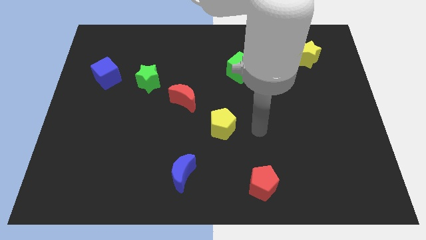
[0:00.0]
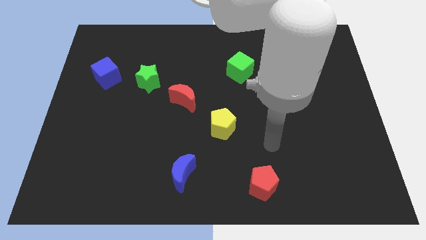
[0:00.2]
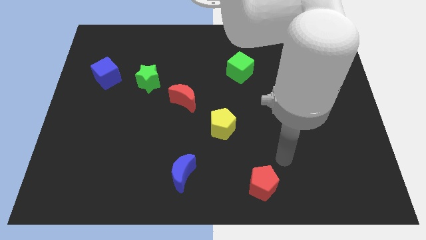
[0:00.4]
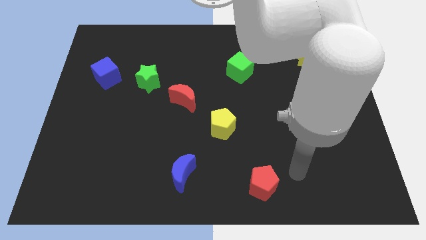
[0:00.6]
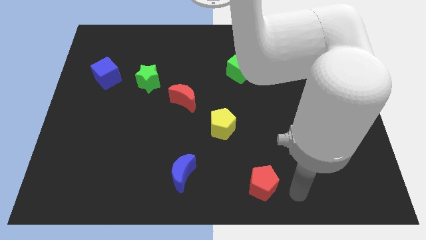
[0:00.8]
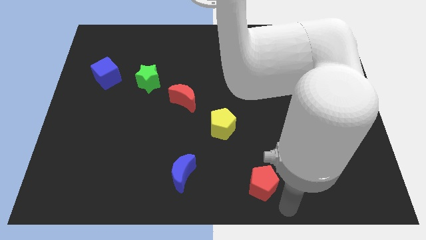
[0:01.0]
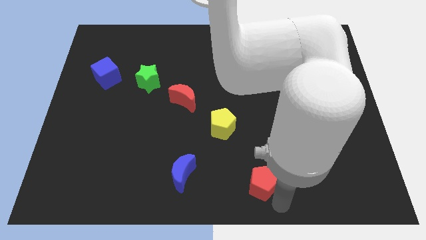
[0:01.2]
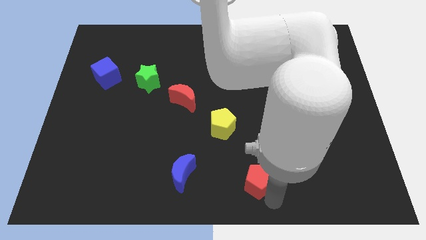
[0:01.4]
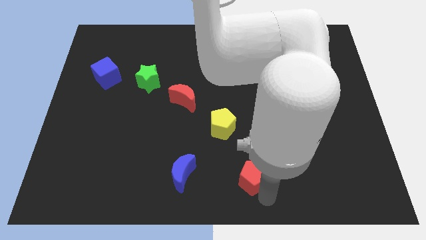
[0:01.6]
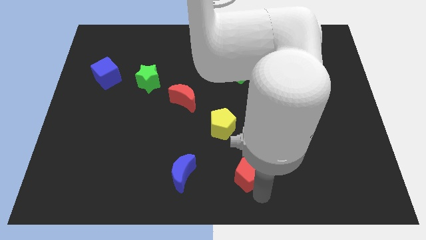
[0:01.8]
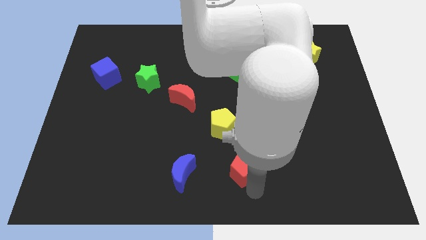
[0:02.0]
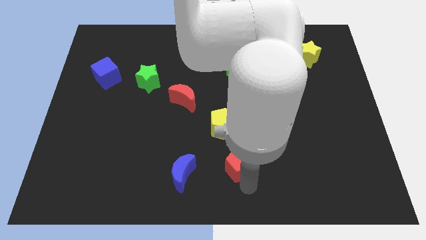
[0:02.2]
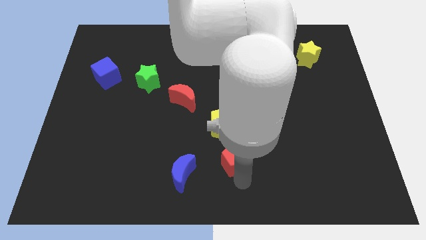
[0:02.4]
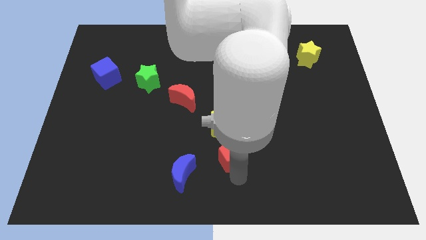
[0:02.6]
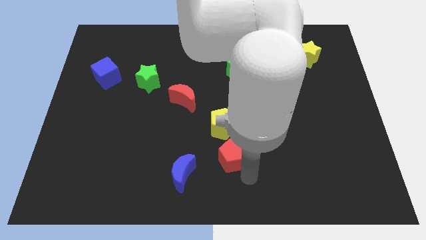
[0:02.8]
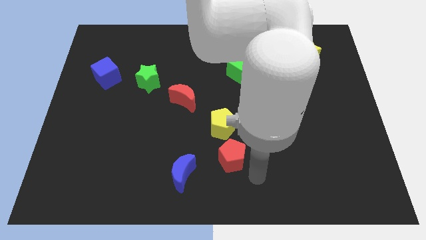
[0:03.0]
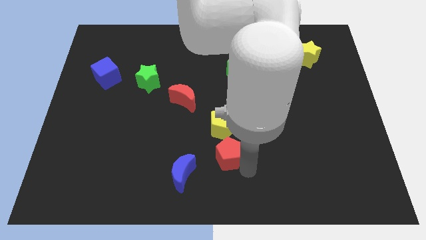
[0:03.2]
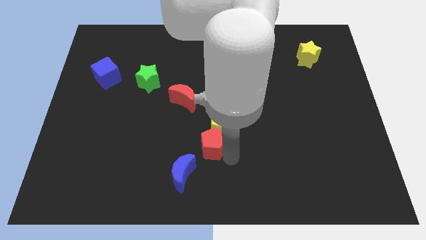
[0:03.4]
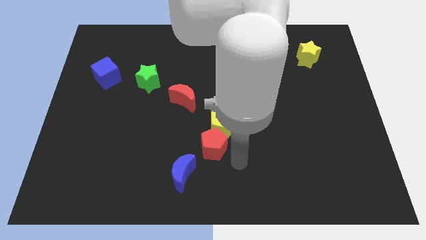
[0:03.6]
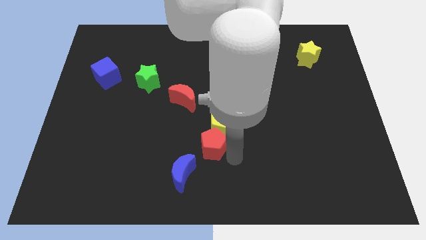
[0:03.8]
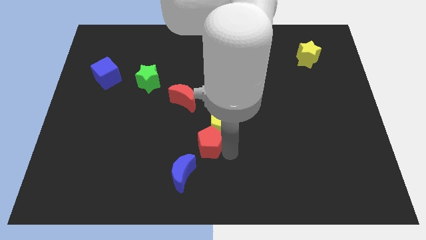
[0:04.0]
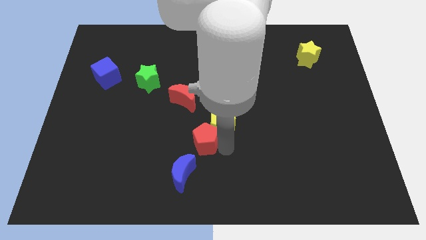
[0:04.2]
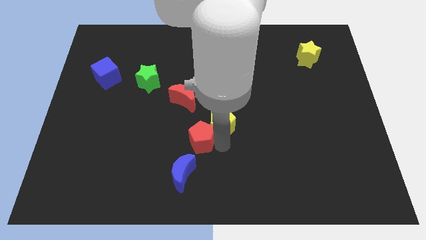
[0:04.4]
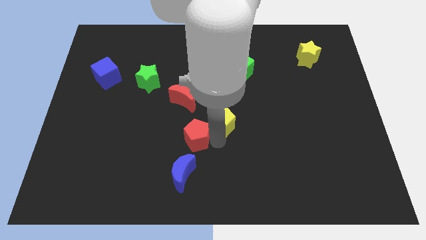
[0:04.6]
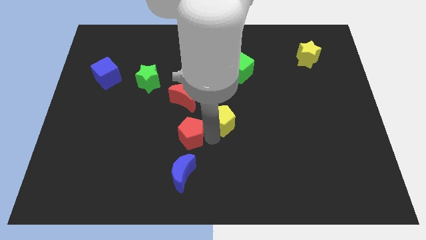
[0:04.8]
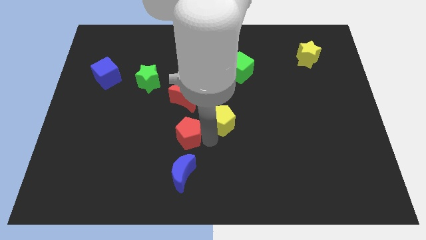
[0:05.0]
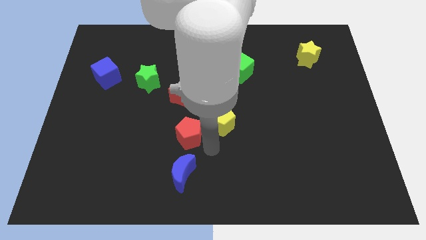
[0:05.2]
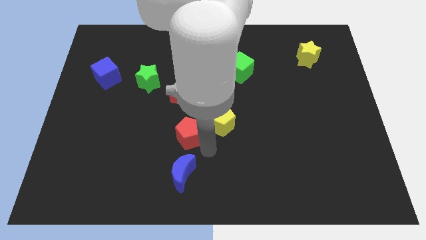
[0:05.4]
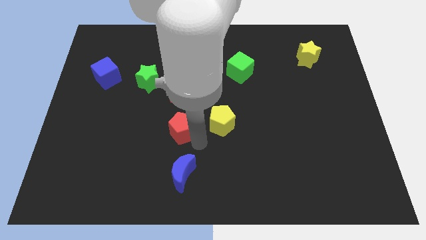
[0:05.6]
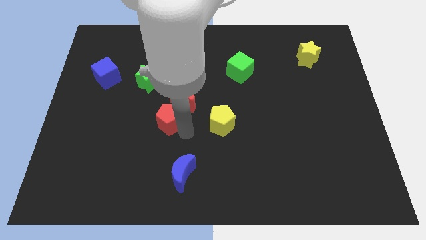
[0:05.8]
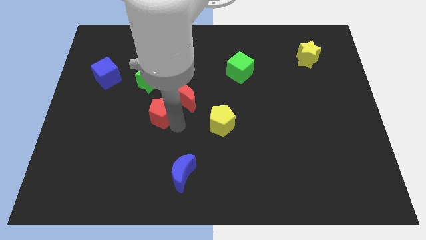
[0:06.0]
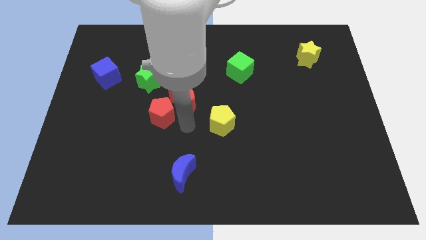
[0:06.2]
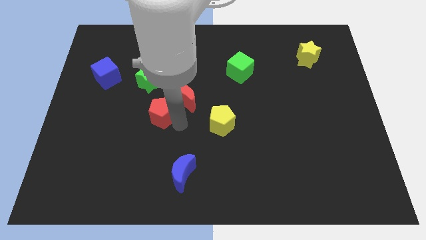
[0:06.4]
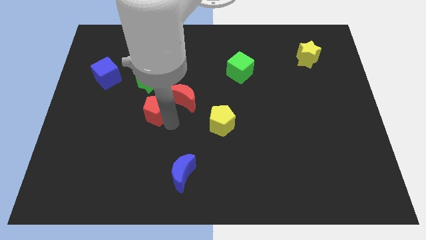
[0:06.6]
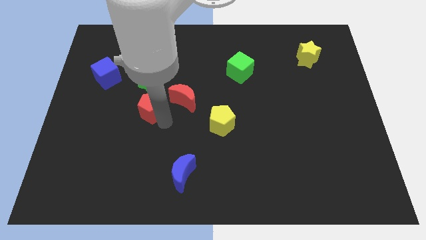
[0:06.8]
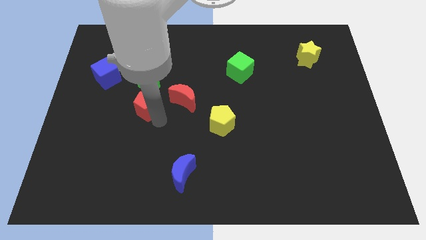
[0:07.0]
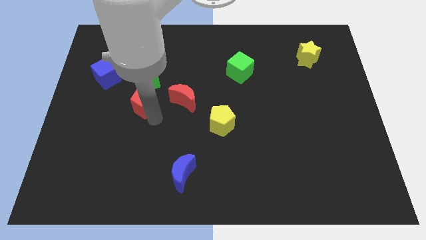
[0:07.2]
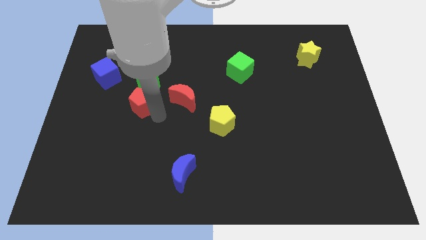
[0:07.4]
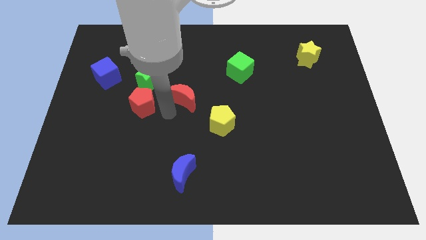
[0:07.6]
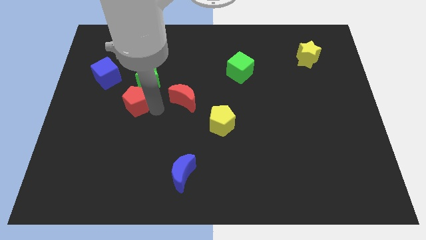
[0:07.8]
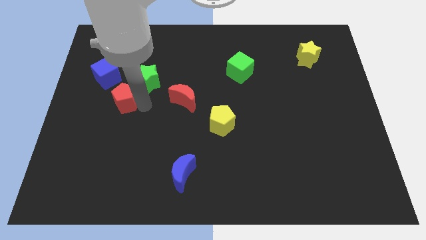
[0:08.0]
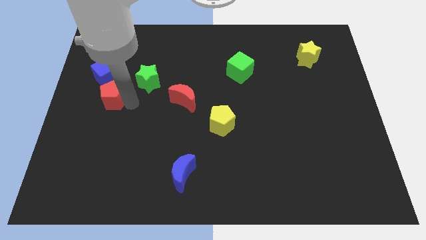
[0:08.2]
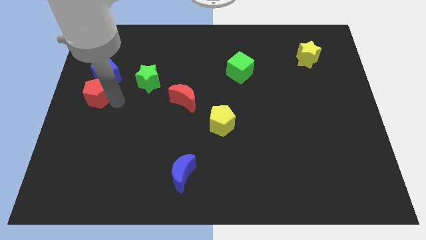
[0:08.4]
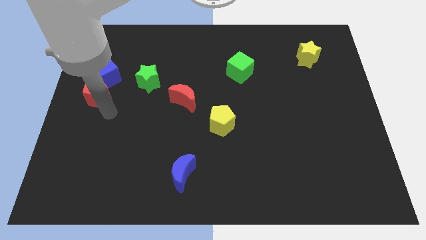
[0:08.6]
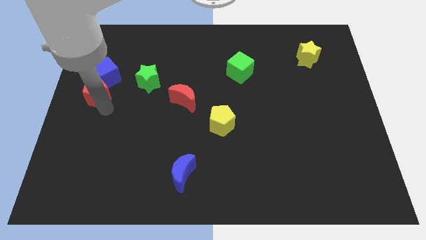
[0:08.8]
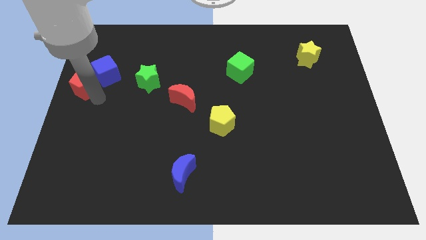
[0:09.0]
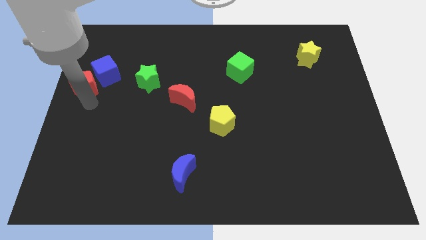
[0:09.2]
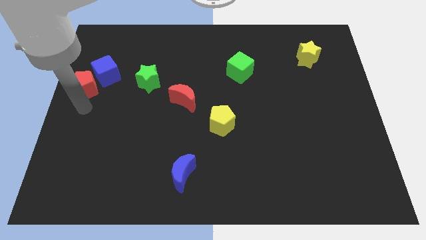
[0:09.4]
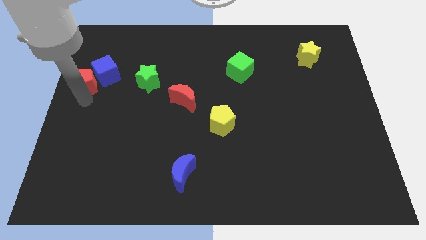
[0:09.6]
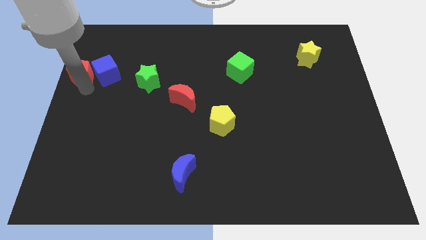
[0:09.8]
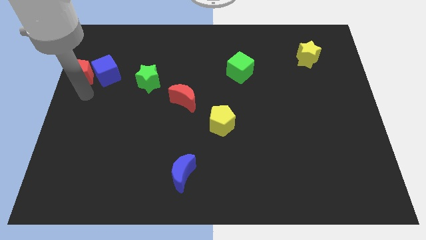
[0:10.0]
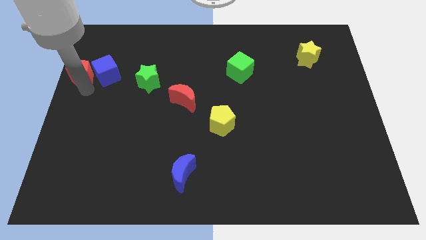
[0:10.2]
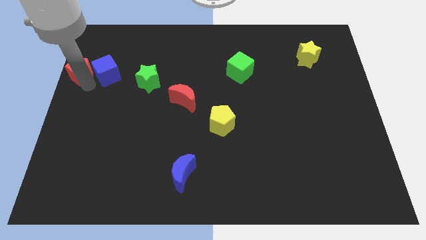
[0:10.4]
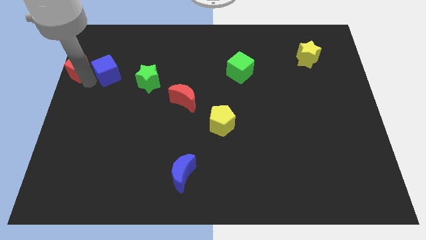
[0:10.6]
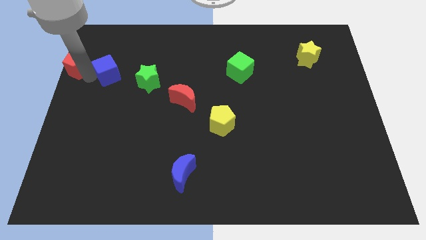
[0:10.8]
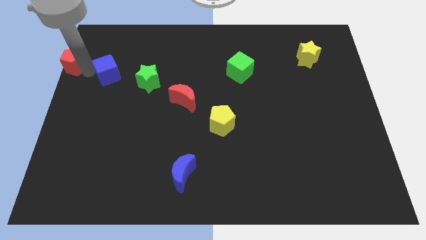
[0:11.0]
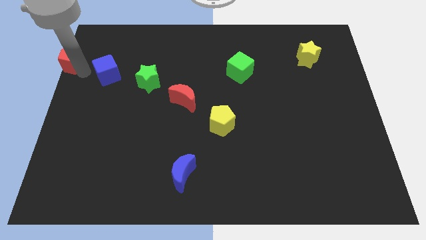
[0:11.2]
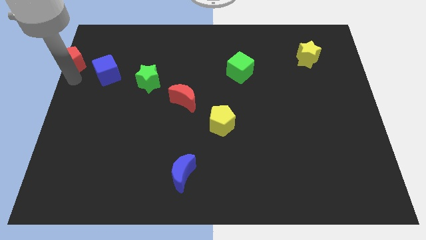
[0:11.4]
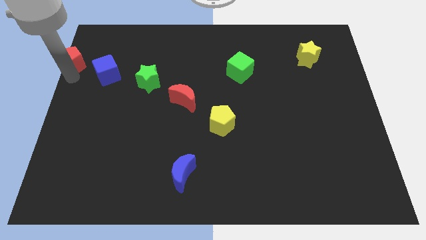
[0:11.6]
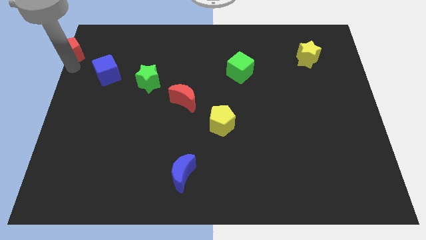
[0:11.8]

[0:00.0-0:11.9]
move the red pentagon to the upper left corner
